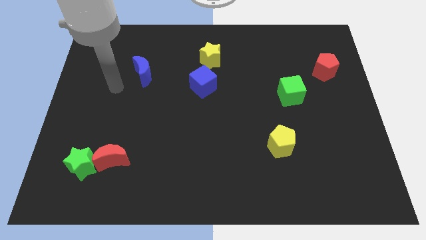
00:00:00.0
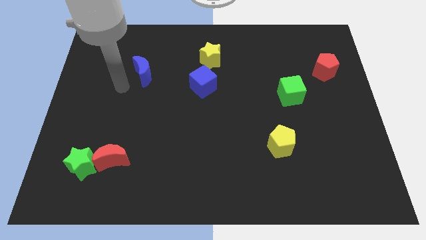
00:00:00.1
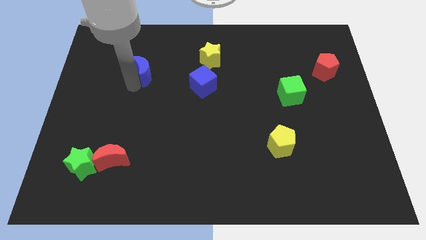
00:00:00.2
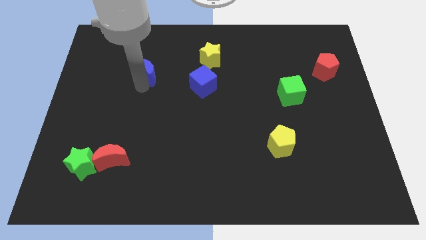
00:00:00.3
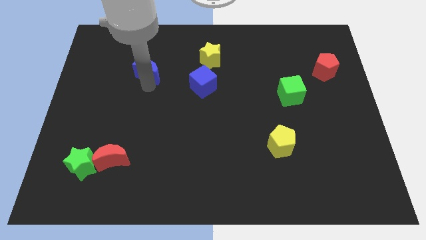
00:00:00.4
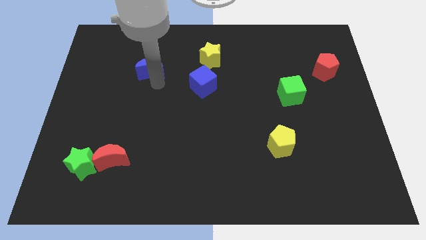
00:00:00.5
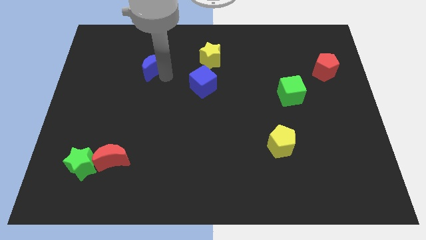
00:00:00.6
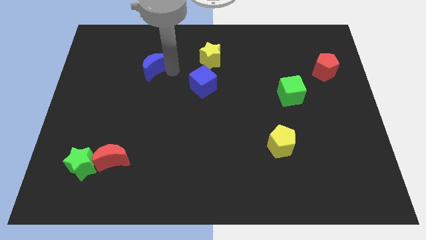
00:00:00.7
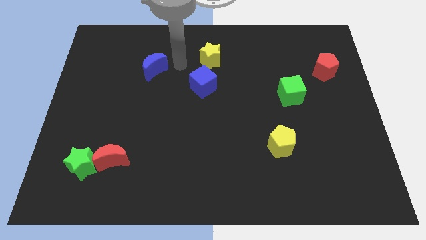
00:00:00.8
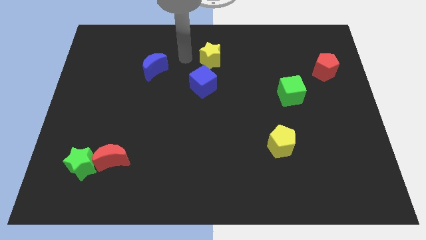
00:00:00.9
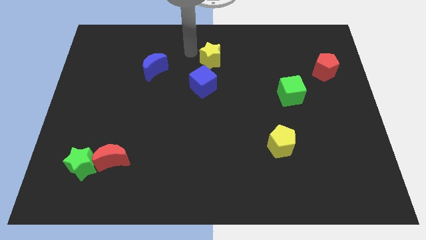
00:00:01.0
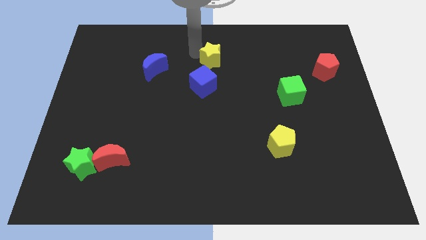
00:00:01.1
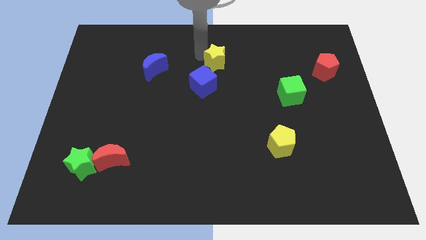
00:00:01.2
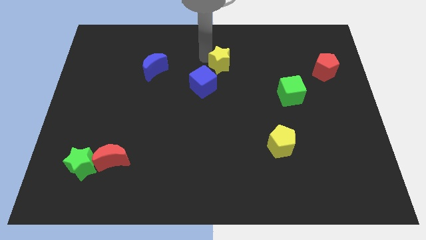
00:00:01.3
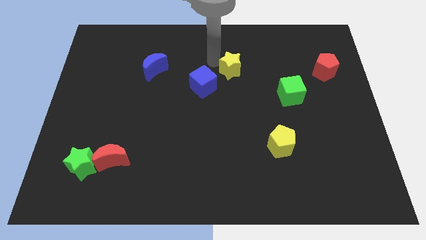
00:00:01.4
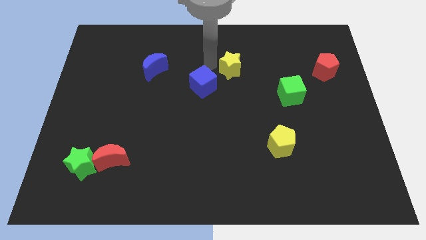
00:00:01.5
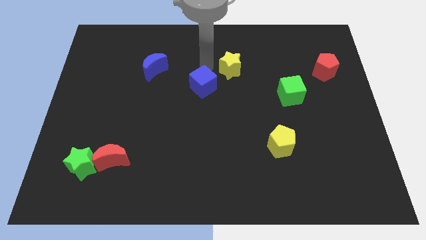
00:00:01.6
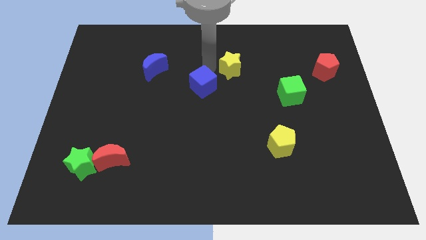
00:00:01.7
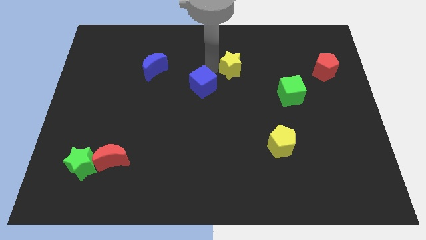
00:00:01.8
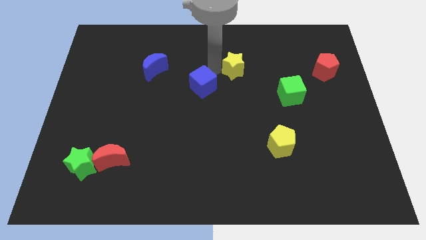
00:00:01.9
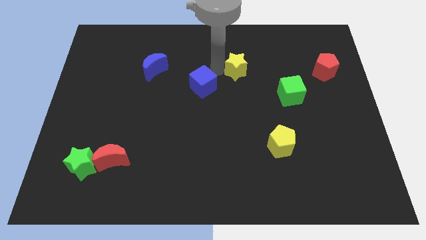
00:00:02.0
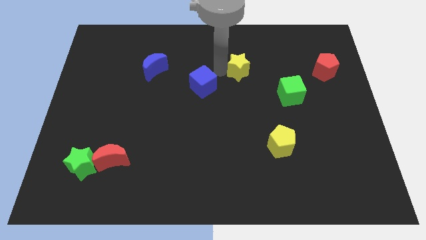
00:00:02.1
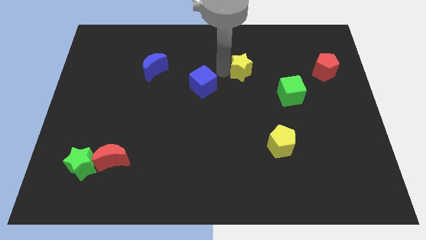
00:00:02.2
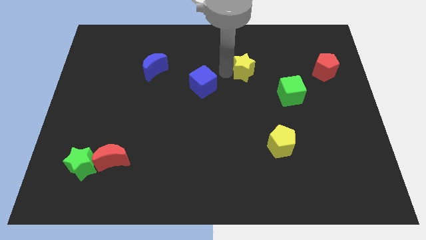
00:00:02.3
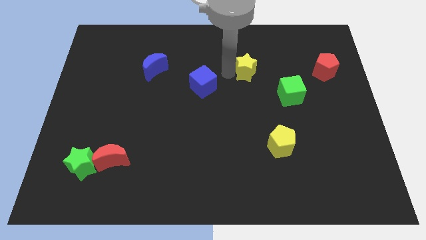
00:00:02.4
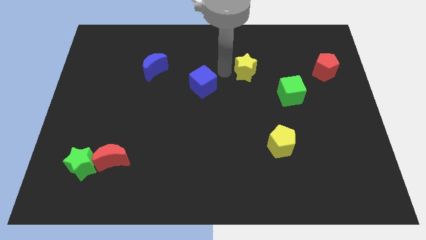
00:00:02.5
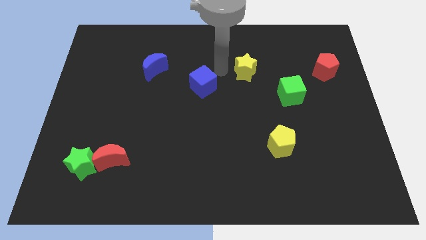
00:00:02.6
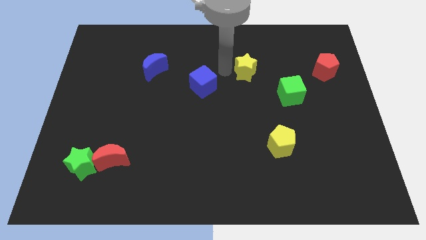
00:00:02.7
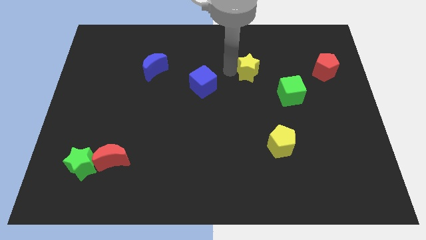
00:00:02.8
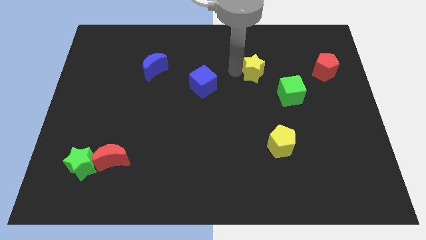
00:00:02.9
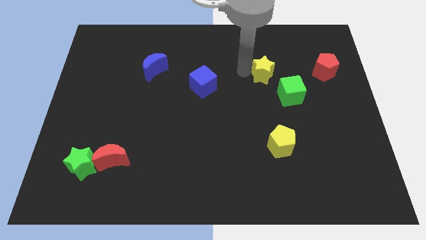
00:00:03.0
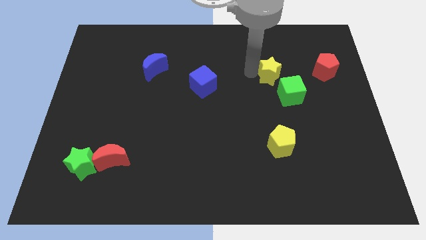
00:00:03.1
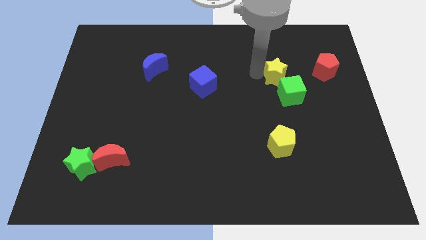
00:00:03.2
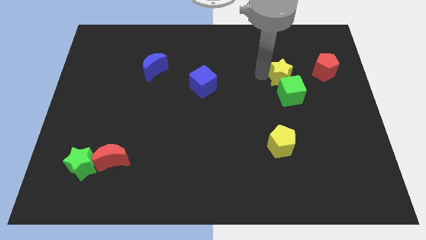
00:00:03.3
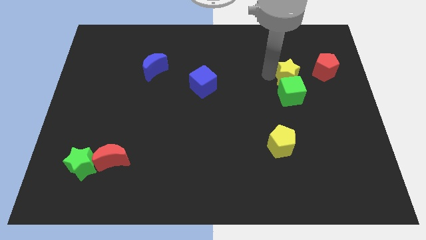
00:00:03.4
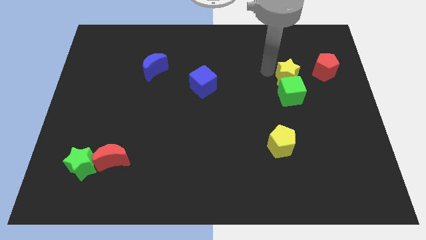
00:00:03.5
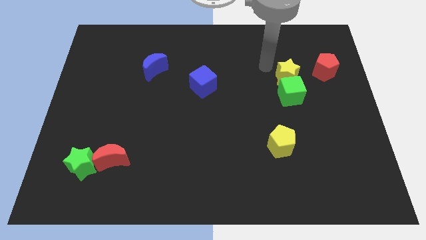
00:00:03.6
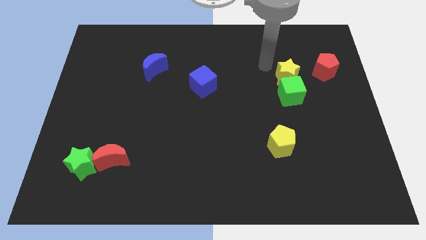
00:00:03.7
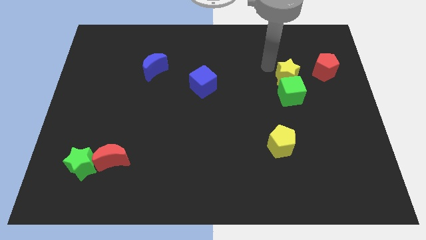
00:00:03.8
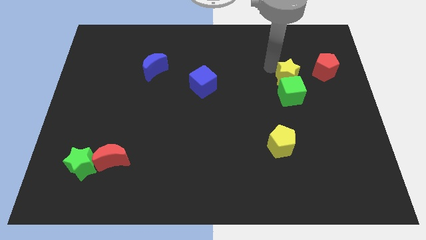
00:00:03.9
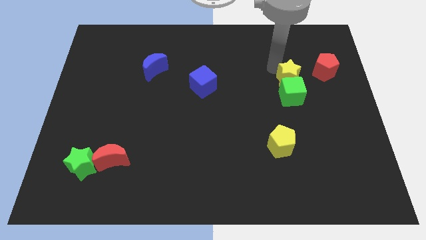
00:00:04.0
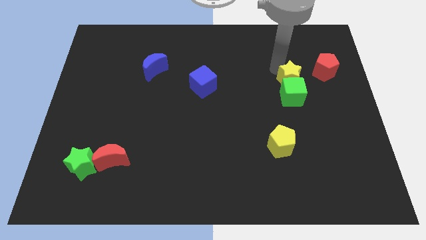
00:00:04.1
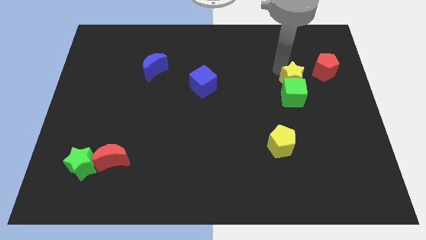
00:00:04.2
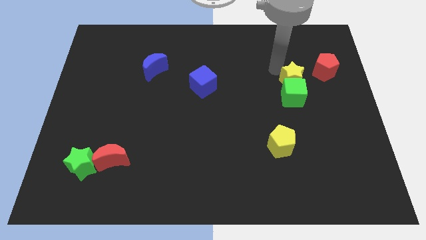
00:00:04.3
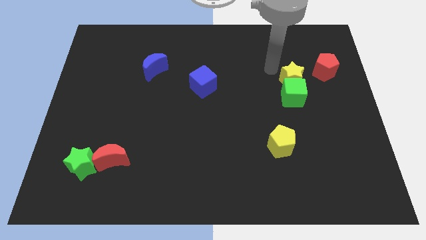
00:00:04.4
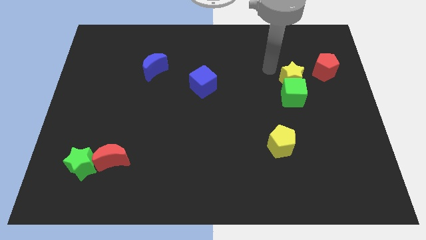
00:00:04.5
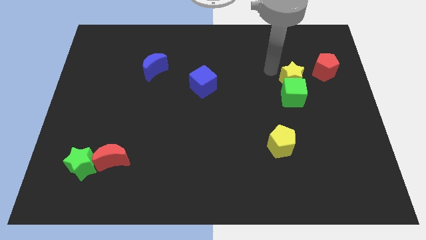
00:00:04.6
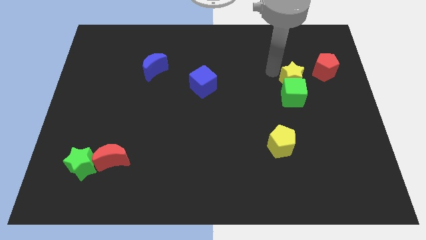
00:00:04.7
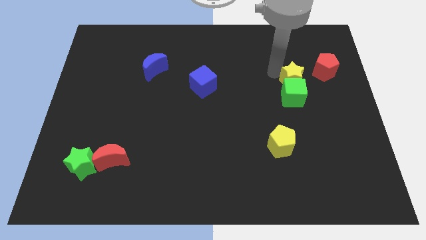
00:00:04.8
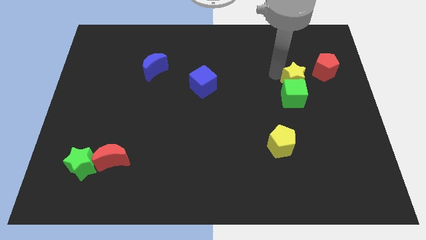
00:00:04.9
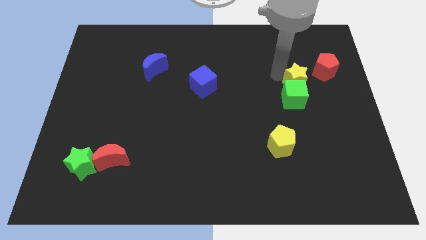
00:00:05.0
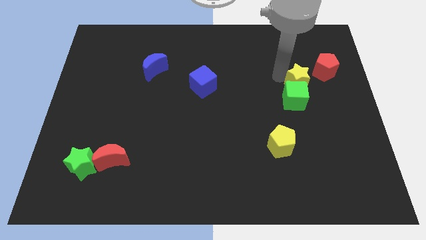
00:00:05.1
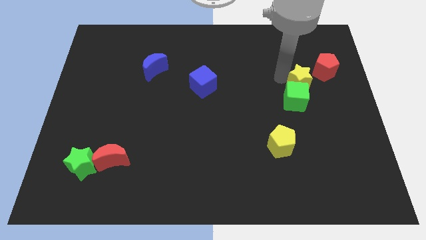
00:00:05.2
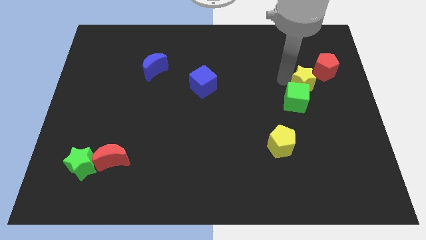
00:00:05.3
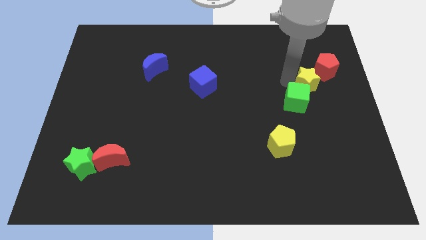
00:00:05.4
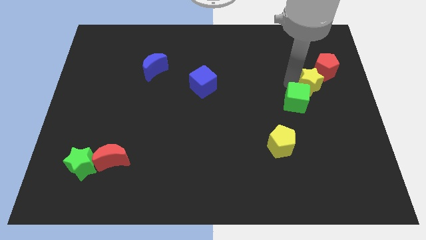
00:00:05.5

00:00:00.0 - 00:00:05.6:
move the yellow star to the bottom side of the red pentagon

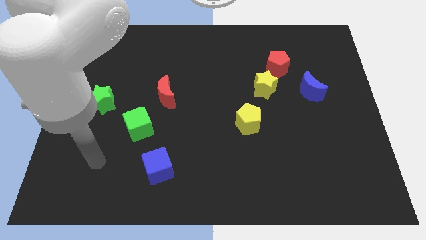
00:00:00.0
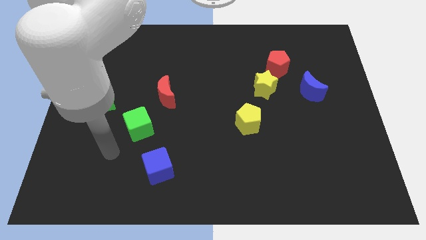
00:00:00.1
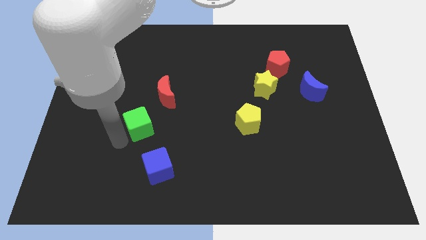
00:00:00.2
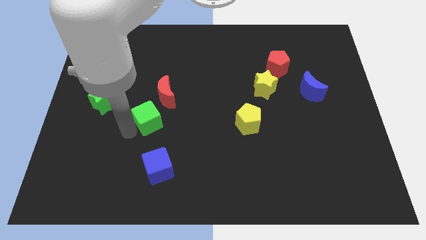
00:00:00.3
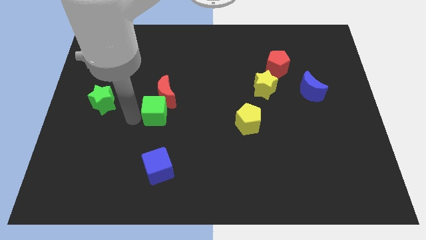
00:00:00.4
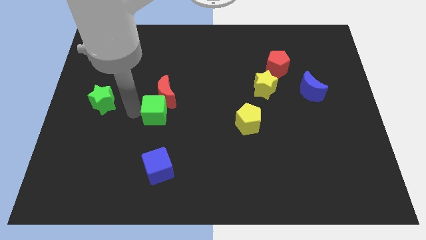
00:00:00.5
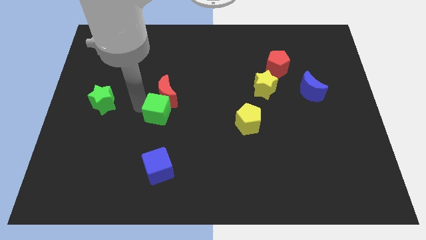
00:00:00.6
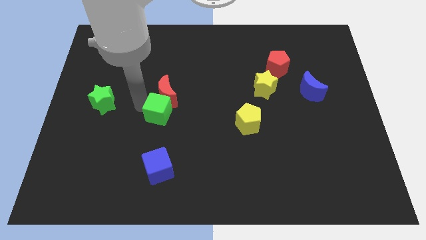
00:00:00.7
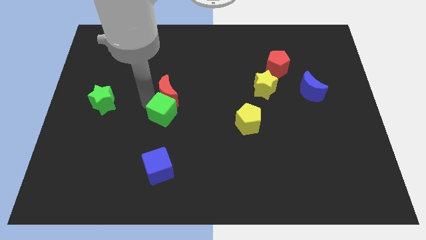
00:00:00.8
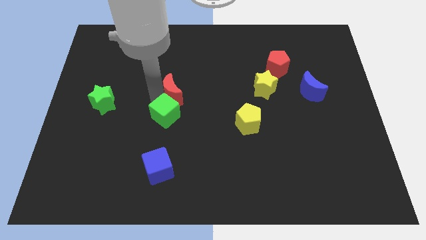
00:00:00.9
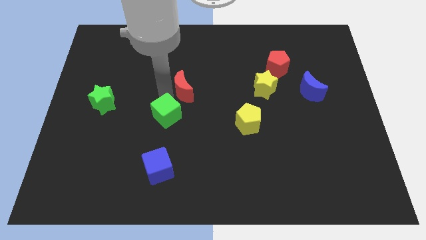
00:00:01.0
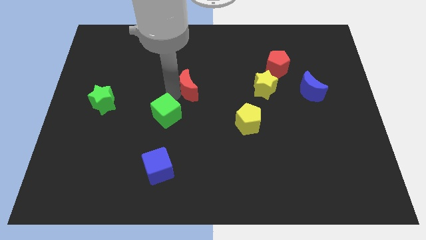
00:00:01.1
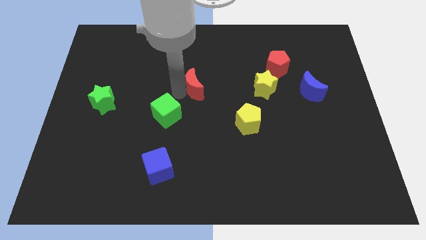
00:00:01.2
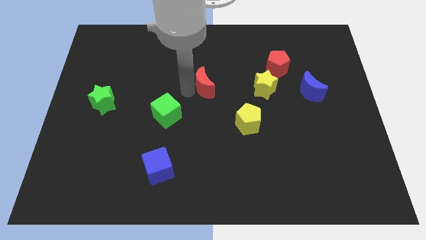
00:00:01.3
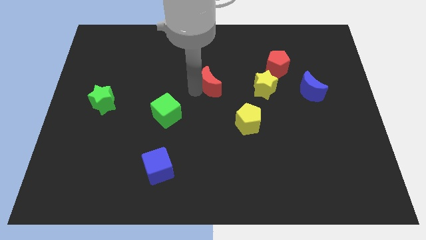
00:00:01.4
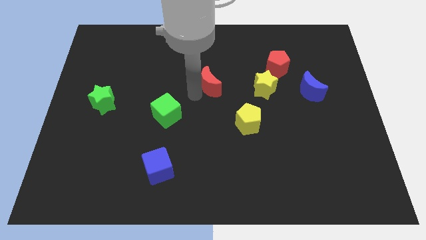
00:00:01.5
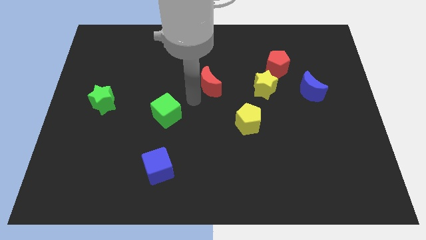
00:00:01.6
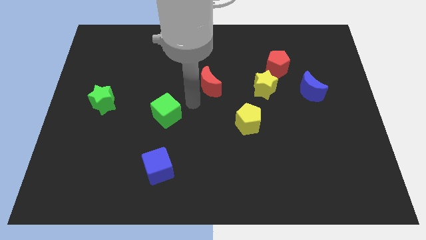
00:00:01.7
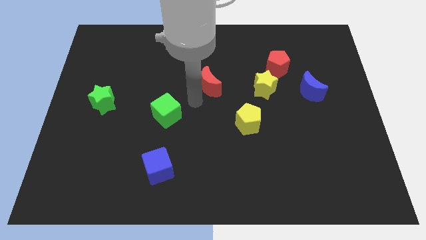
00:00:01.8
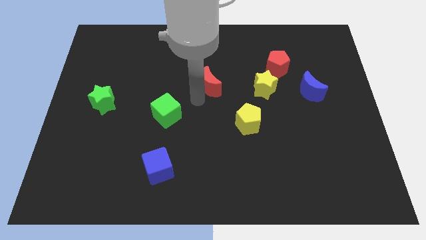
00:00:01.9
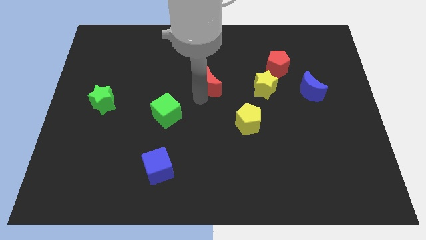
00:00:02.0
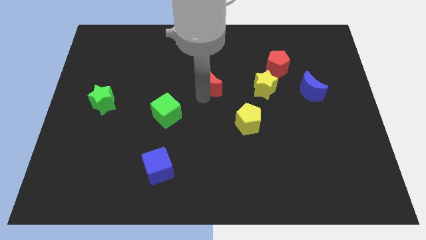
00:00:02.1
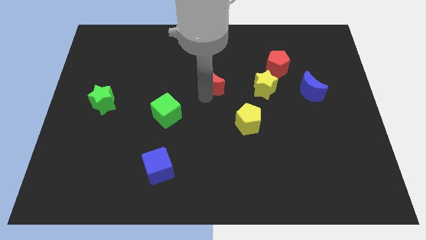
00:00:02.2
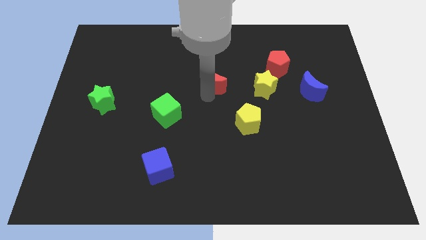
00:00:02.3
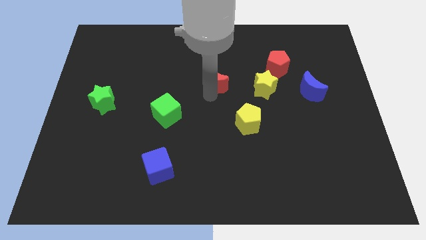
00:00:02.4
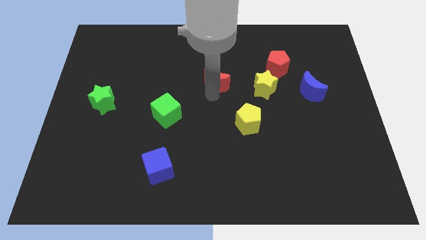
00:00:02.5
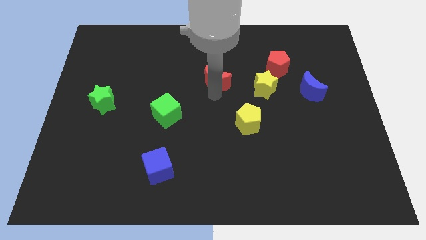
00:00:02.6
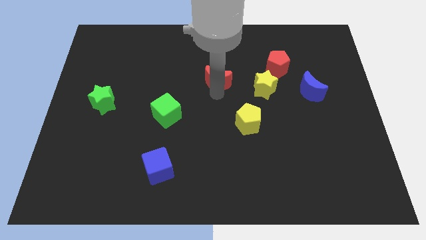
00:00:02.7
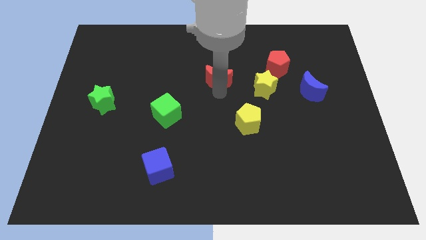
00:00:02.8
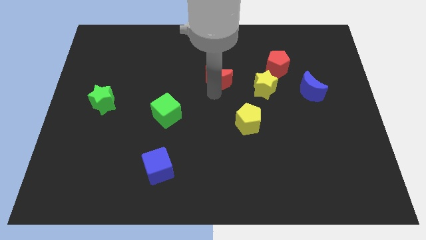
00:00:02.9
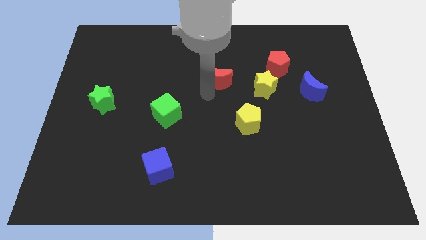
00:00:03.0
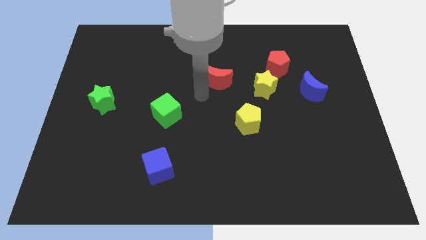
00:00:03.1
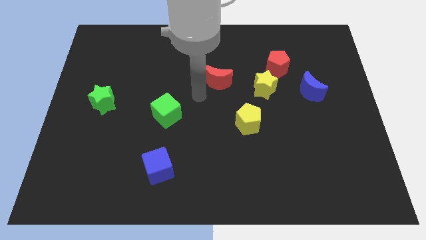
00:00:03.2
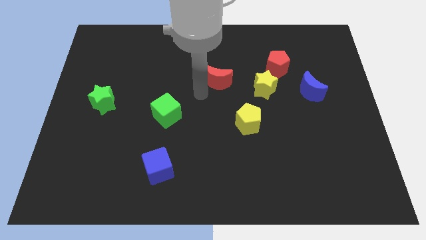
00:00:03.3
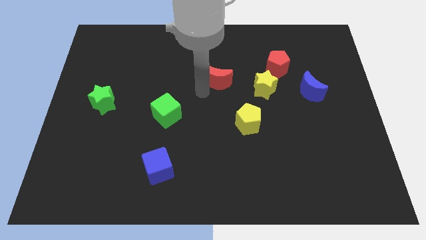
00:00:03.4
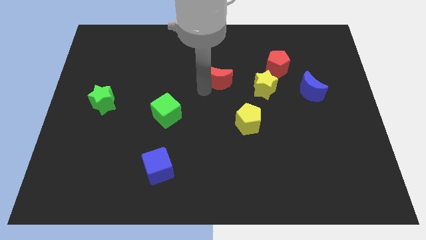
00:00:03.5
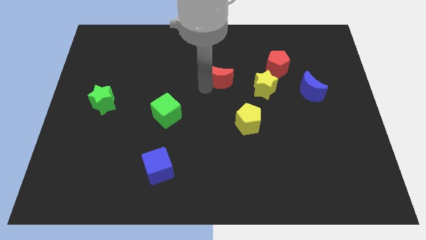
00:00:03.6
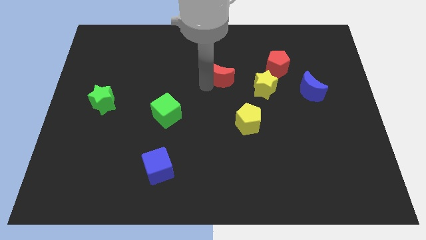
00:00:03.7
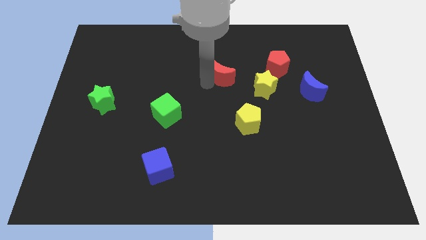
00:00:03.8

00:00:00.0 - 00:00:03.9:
push the red moon to the left of the red pentagon
